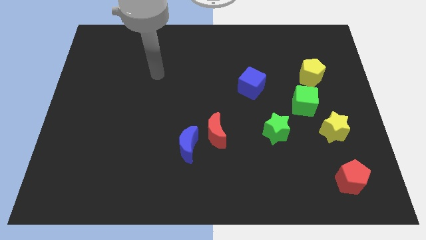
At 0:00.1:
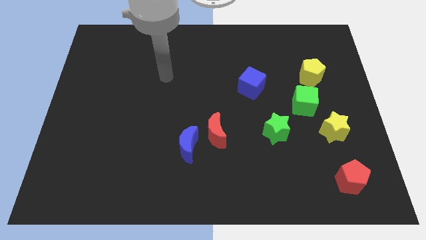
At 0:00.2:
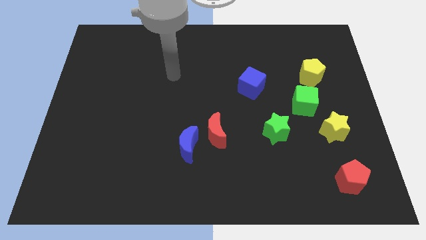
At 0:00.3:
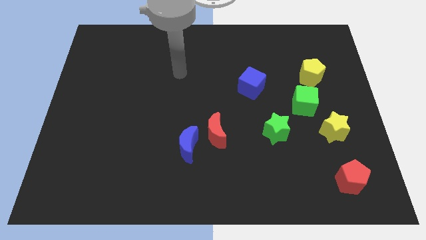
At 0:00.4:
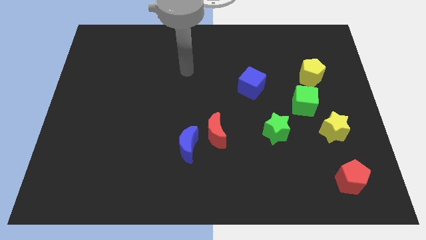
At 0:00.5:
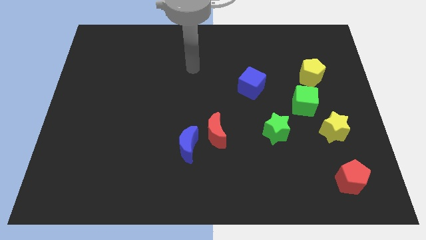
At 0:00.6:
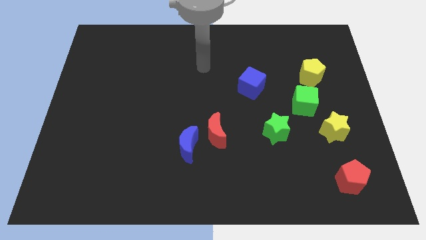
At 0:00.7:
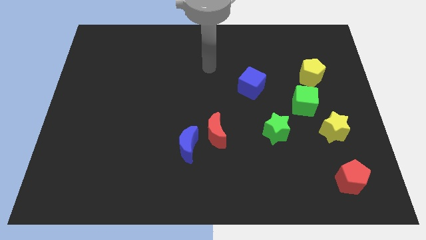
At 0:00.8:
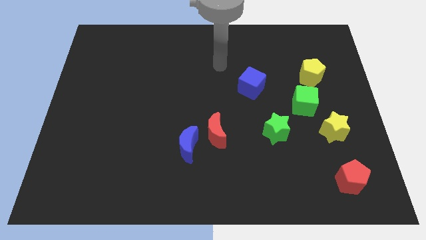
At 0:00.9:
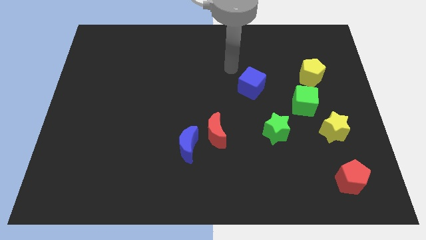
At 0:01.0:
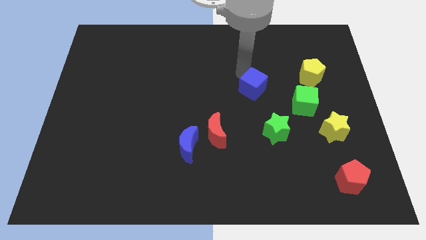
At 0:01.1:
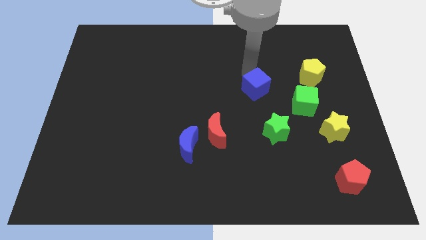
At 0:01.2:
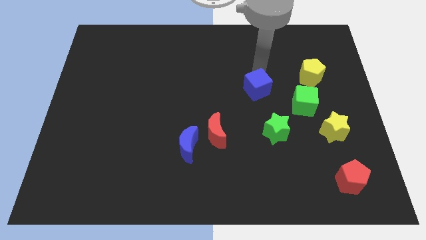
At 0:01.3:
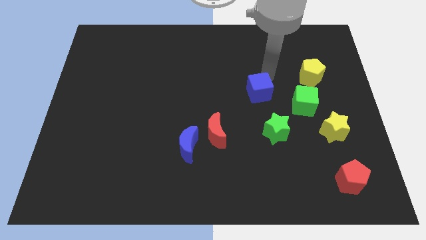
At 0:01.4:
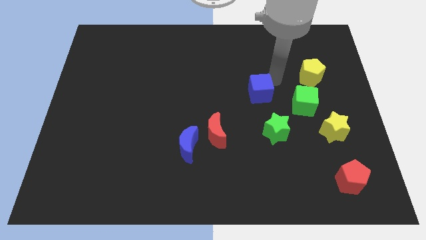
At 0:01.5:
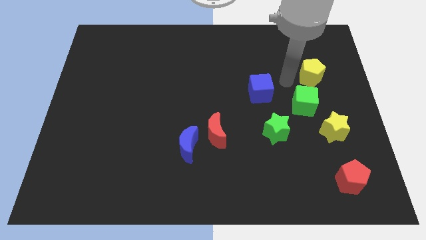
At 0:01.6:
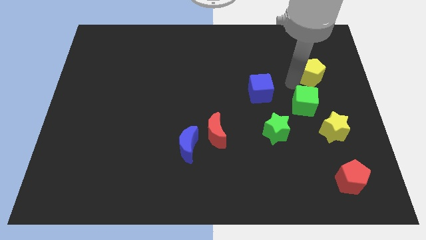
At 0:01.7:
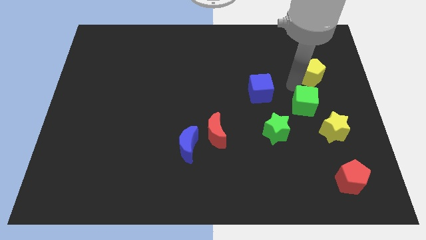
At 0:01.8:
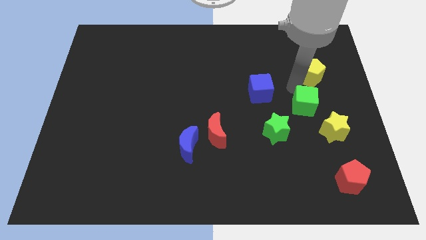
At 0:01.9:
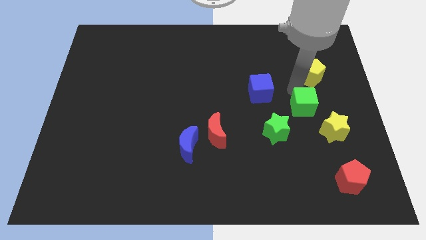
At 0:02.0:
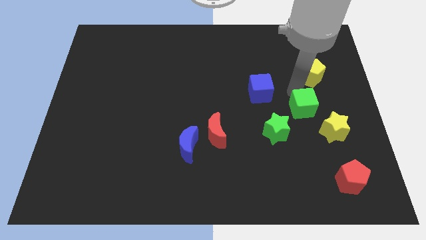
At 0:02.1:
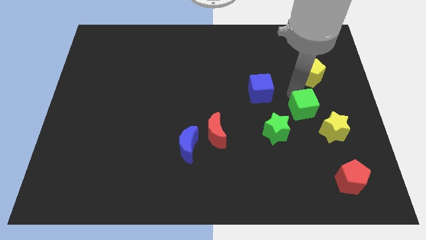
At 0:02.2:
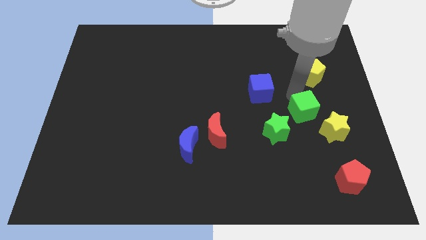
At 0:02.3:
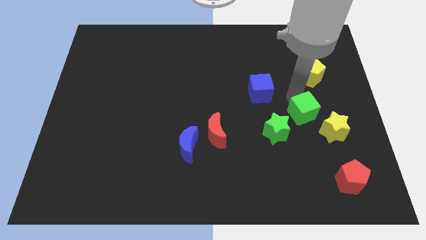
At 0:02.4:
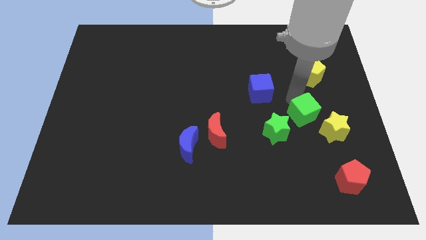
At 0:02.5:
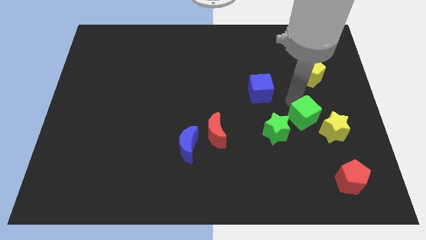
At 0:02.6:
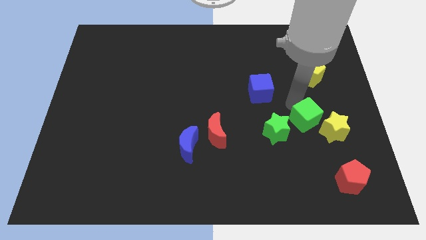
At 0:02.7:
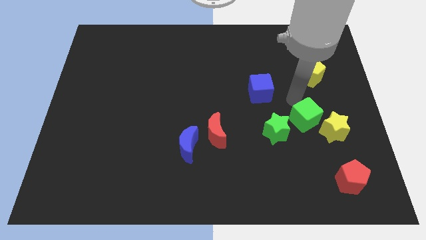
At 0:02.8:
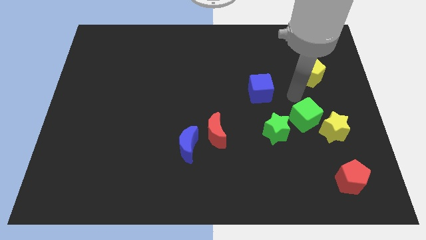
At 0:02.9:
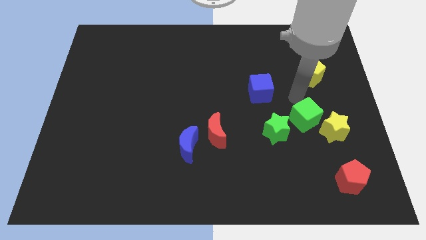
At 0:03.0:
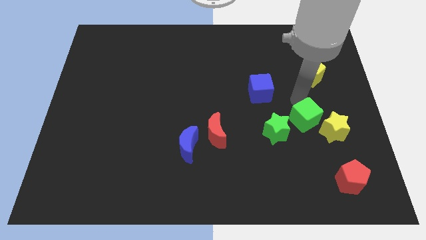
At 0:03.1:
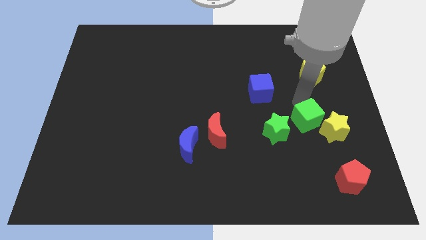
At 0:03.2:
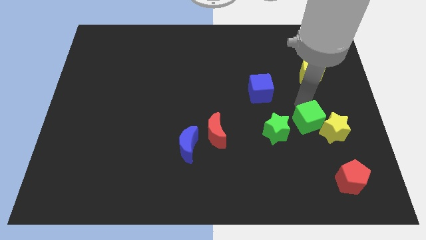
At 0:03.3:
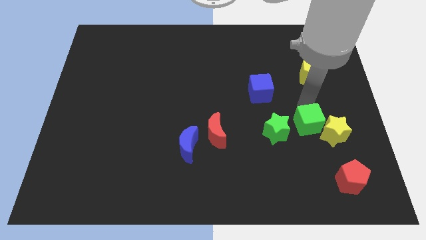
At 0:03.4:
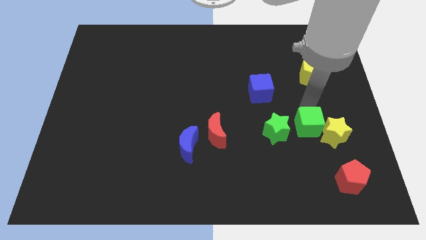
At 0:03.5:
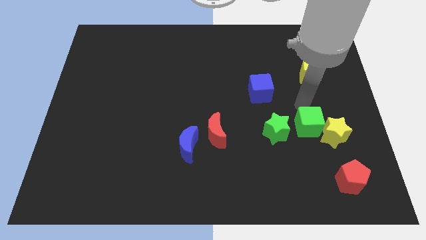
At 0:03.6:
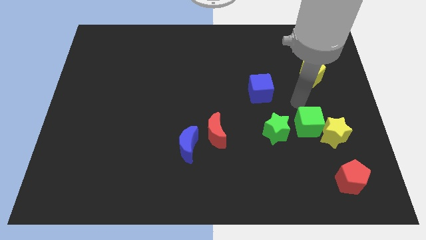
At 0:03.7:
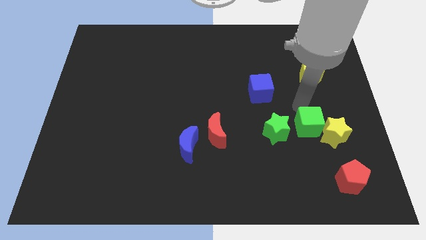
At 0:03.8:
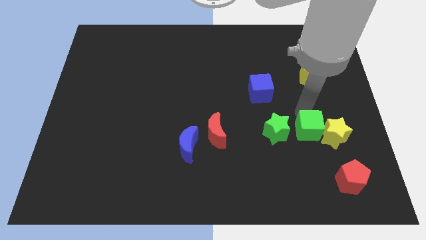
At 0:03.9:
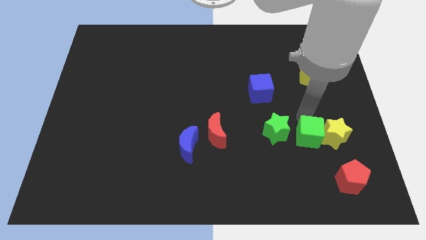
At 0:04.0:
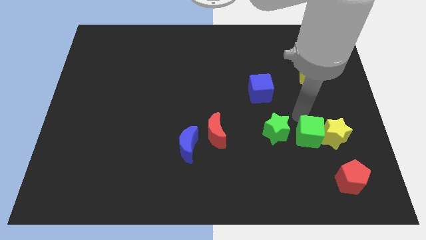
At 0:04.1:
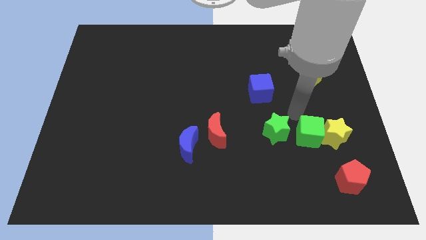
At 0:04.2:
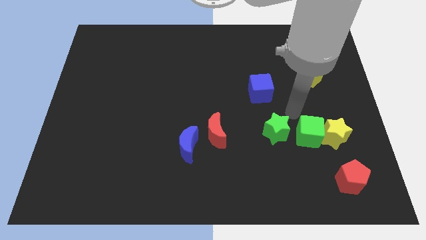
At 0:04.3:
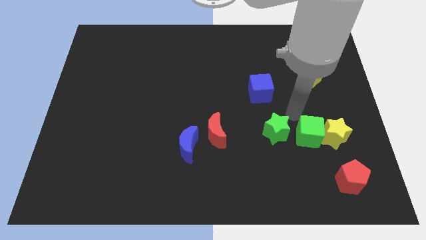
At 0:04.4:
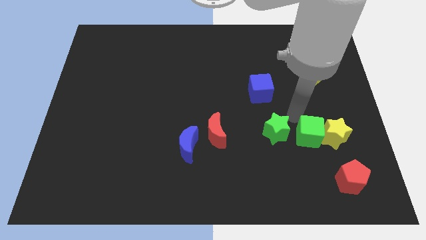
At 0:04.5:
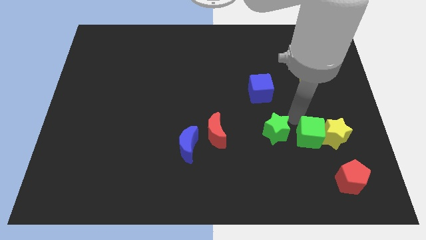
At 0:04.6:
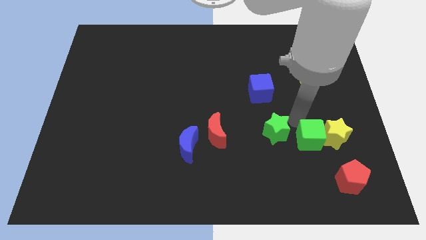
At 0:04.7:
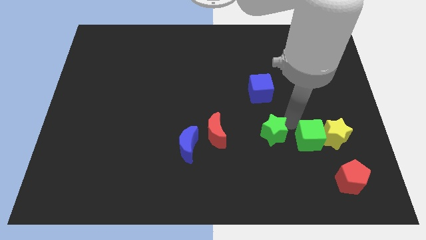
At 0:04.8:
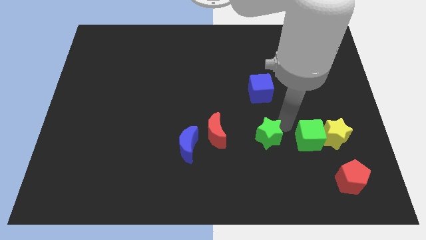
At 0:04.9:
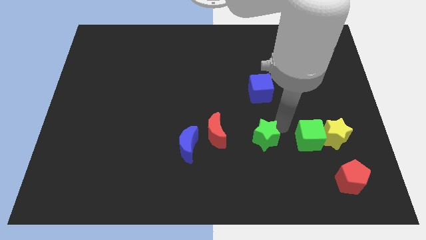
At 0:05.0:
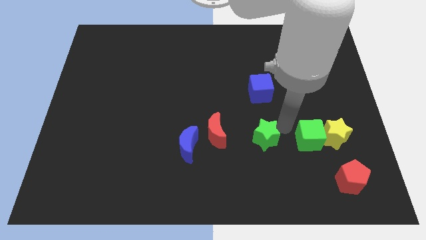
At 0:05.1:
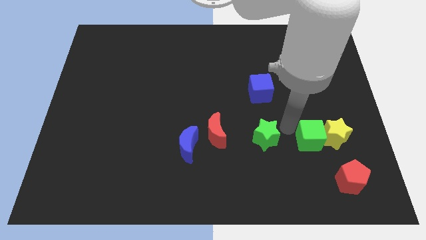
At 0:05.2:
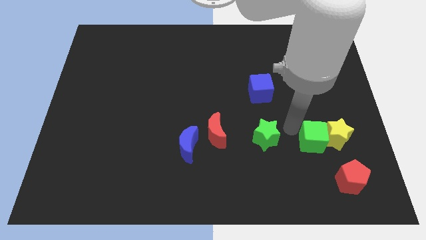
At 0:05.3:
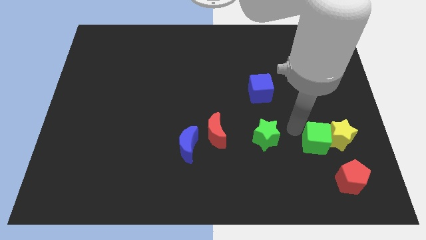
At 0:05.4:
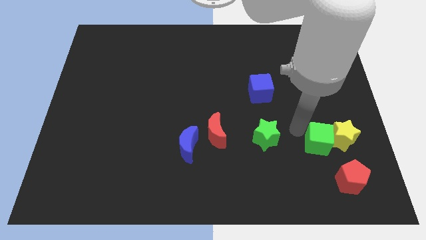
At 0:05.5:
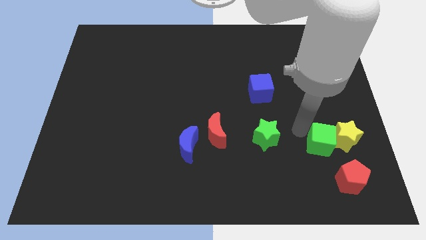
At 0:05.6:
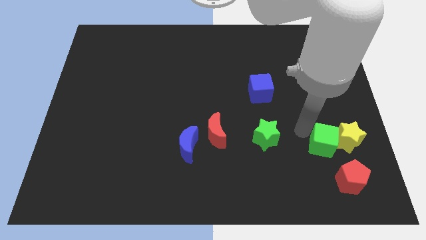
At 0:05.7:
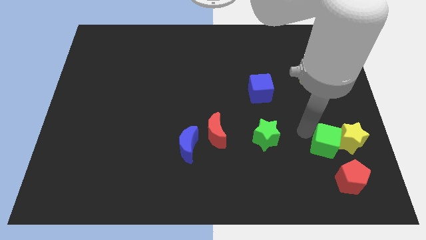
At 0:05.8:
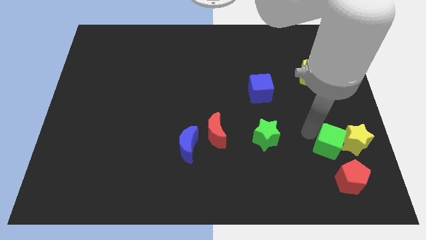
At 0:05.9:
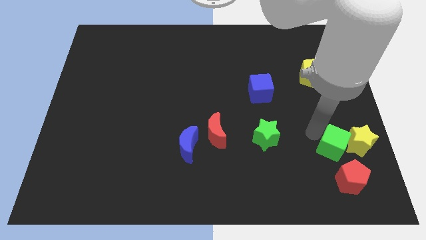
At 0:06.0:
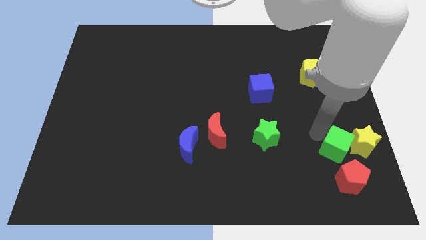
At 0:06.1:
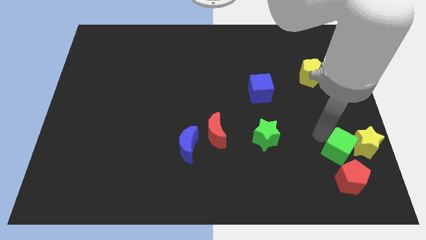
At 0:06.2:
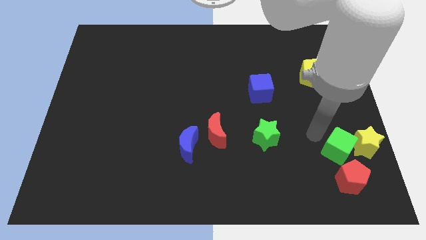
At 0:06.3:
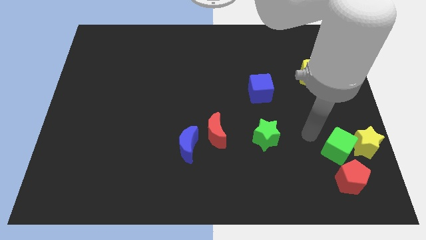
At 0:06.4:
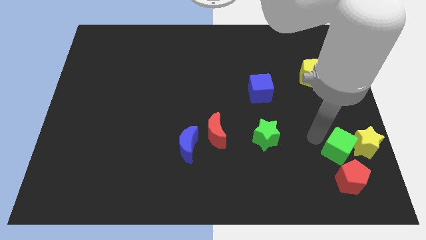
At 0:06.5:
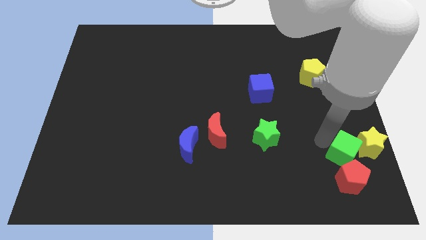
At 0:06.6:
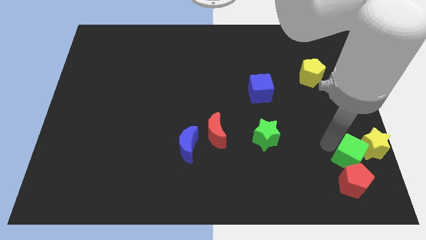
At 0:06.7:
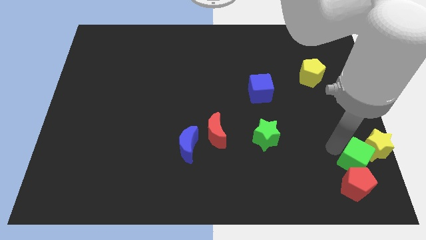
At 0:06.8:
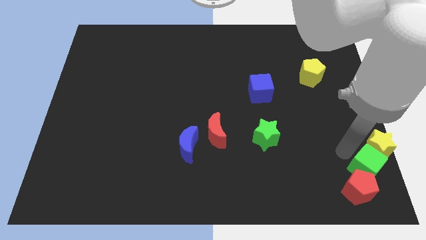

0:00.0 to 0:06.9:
move the green cube to the bottom right

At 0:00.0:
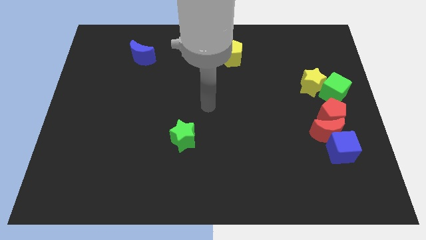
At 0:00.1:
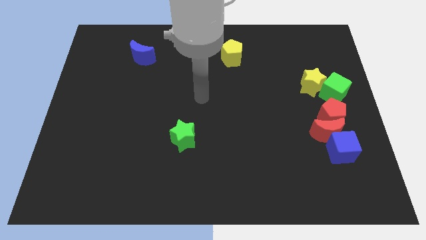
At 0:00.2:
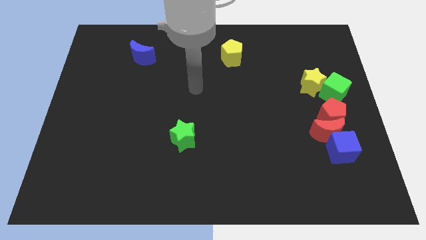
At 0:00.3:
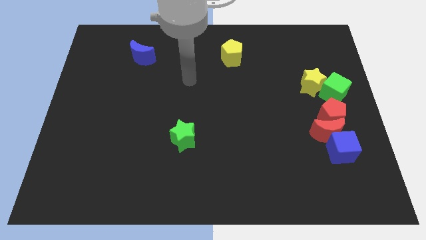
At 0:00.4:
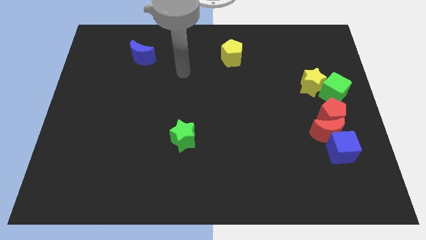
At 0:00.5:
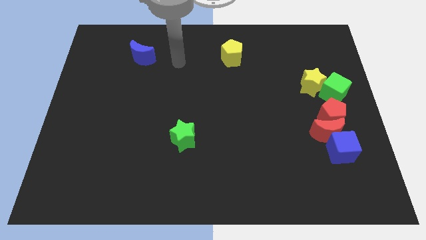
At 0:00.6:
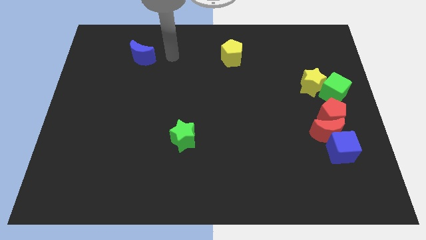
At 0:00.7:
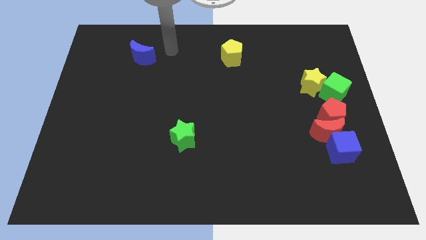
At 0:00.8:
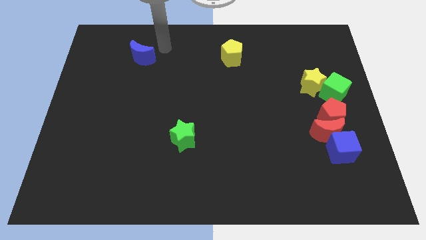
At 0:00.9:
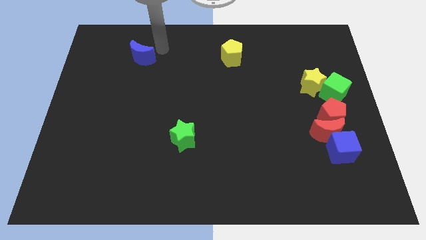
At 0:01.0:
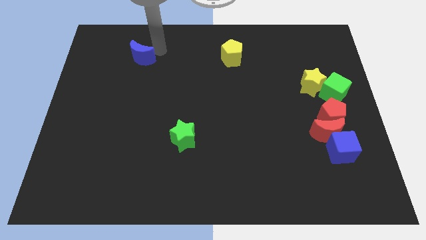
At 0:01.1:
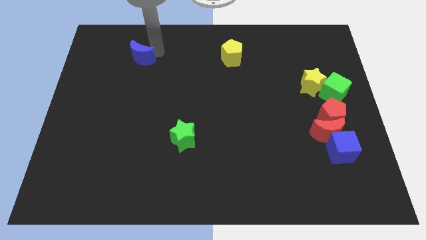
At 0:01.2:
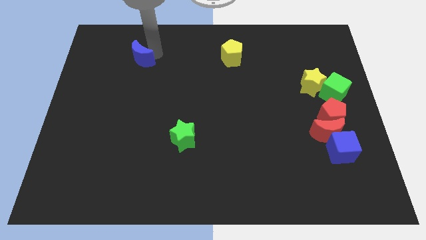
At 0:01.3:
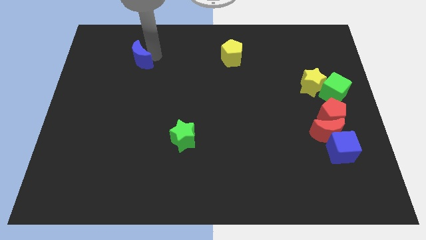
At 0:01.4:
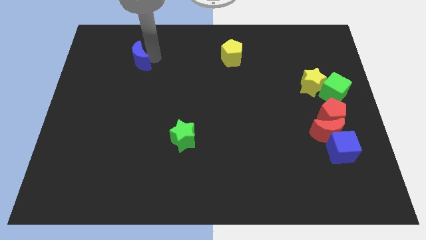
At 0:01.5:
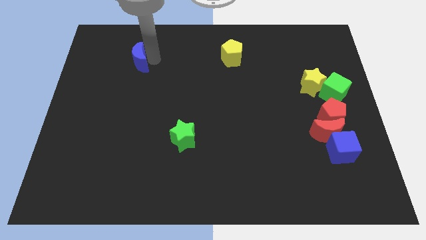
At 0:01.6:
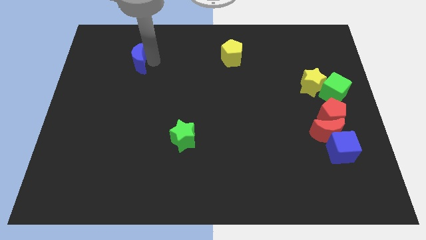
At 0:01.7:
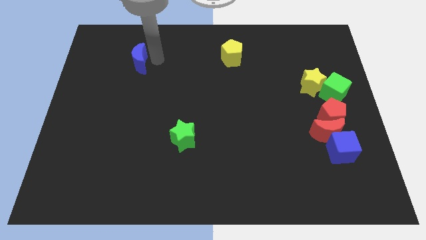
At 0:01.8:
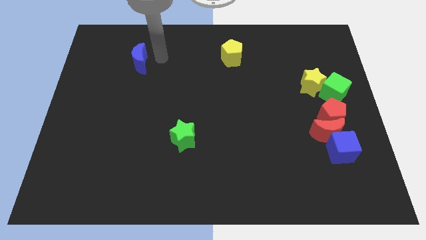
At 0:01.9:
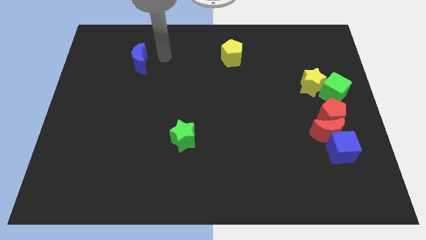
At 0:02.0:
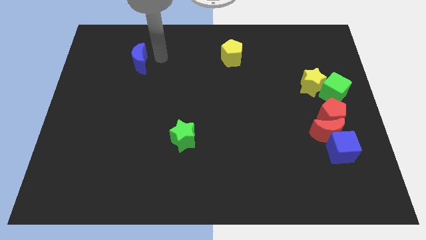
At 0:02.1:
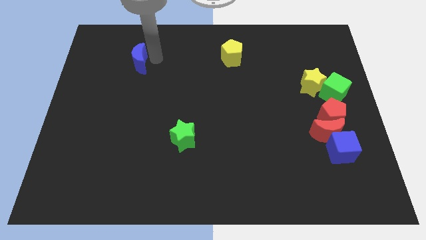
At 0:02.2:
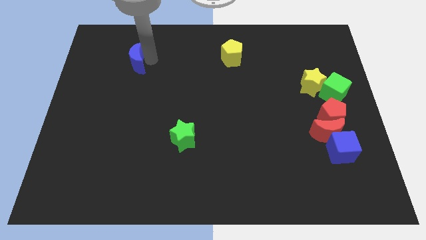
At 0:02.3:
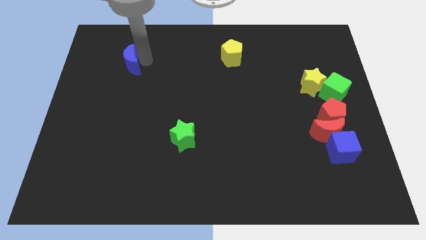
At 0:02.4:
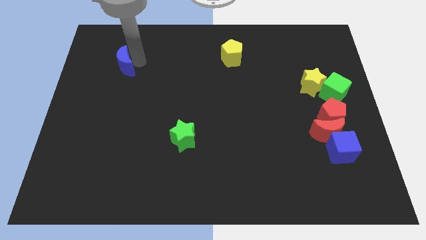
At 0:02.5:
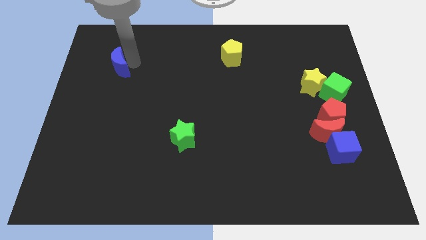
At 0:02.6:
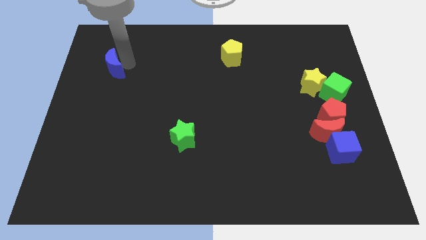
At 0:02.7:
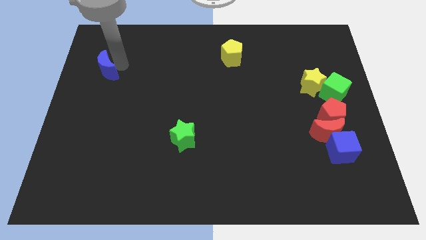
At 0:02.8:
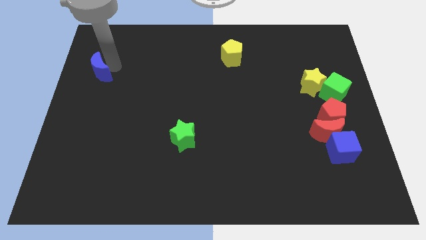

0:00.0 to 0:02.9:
slide the blue moon to the center left
